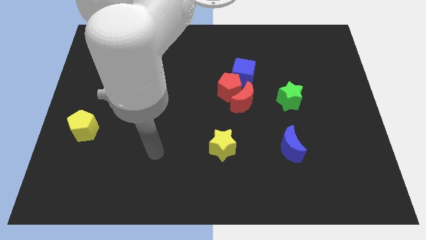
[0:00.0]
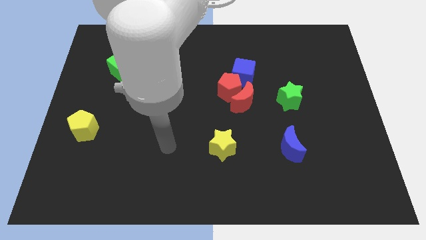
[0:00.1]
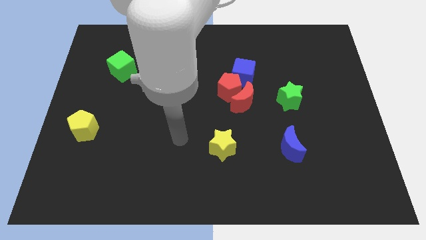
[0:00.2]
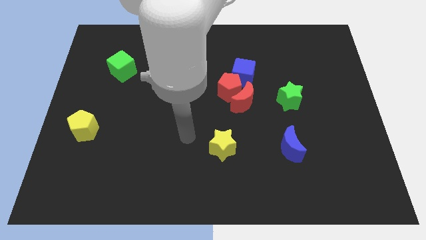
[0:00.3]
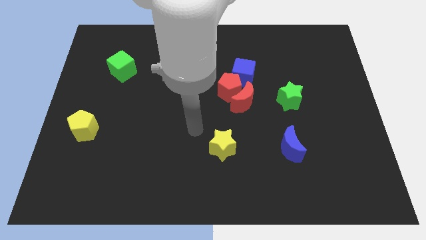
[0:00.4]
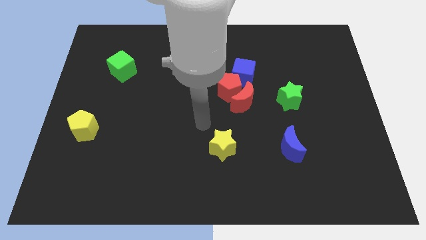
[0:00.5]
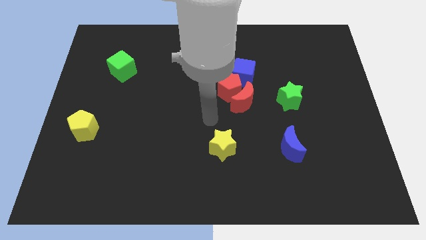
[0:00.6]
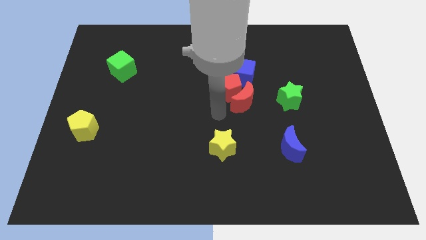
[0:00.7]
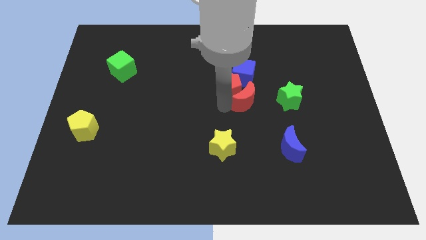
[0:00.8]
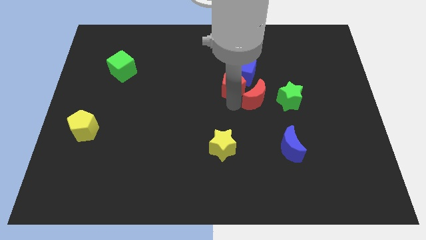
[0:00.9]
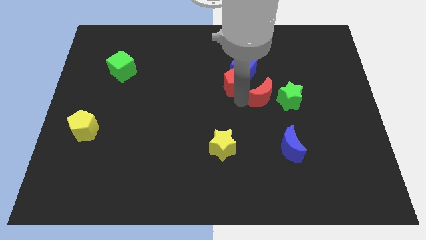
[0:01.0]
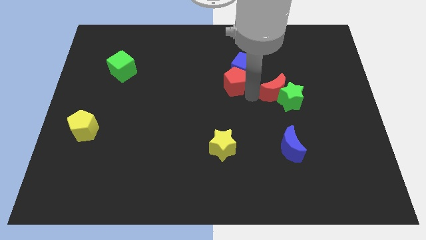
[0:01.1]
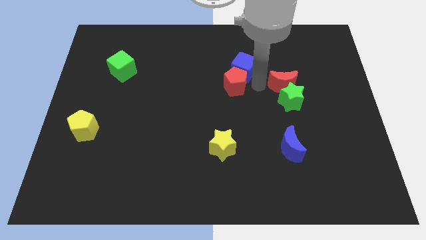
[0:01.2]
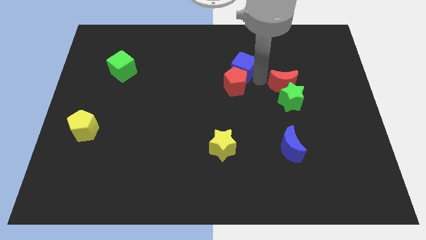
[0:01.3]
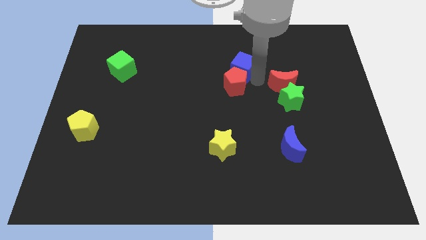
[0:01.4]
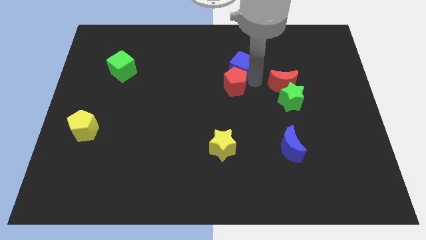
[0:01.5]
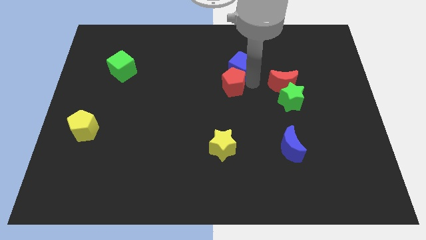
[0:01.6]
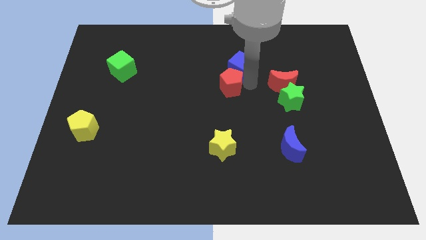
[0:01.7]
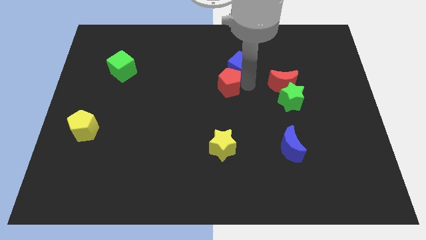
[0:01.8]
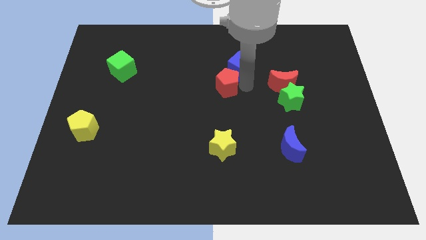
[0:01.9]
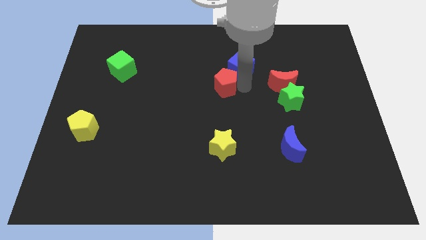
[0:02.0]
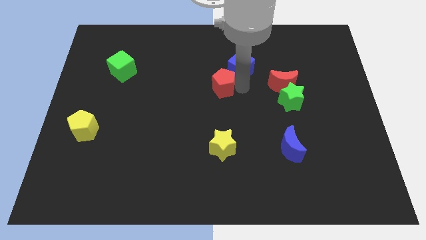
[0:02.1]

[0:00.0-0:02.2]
pull the red pentagon apart from the red moon and blue cube

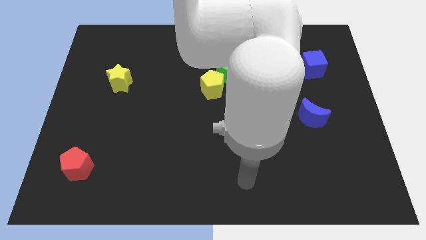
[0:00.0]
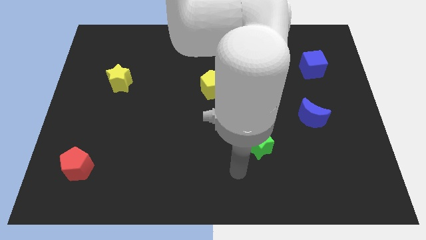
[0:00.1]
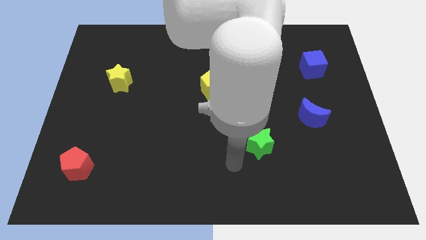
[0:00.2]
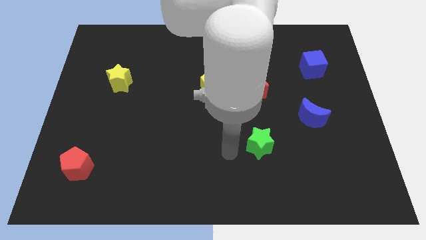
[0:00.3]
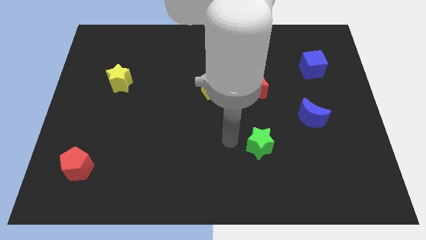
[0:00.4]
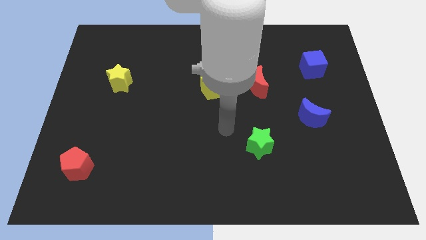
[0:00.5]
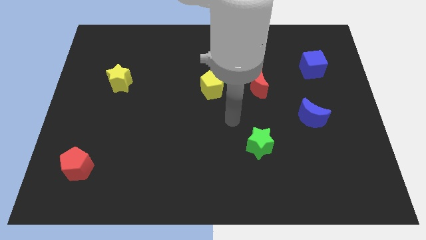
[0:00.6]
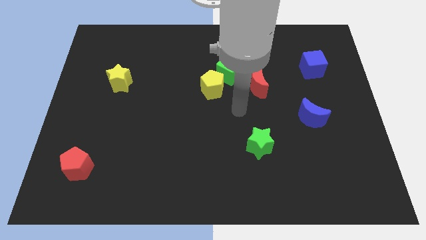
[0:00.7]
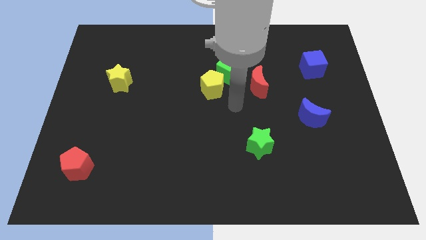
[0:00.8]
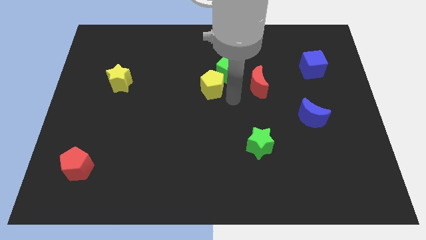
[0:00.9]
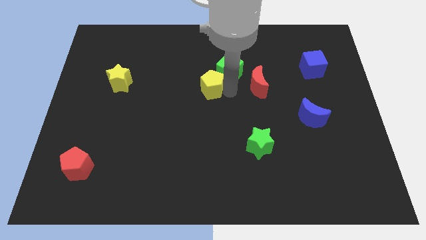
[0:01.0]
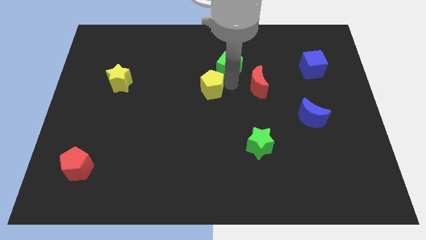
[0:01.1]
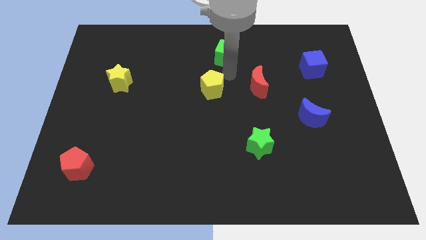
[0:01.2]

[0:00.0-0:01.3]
pull the yellow pentagon apart from the green cube

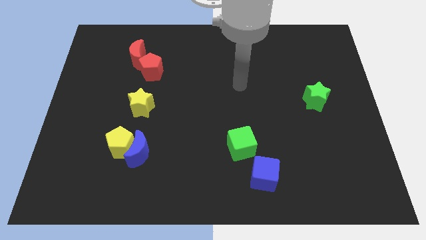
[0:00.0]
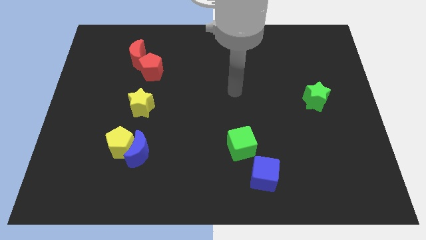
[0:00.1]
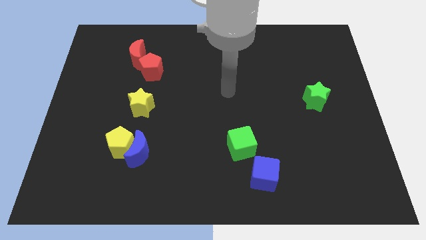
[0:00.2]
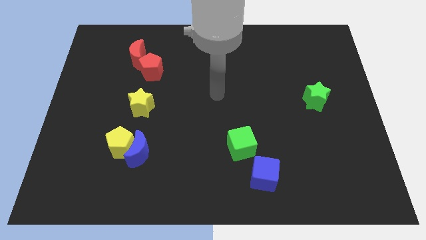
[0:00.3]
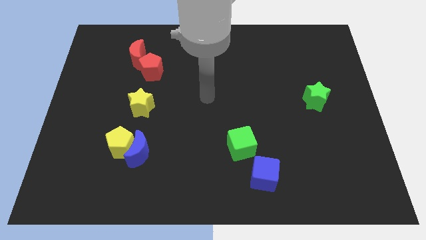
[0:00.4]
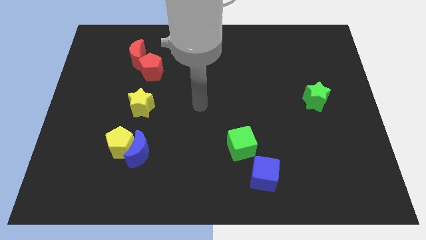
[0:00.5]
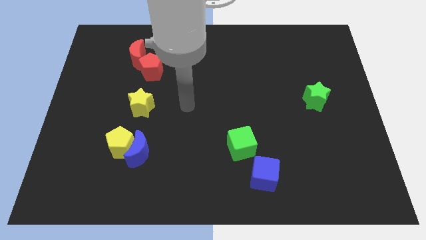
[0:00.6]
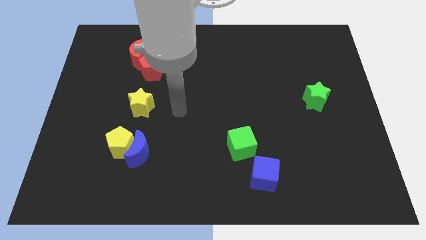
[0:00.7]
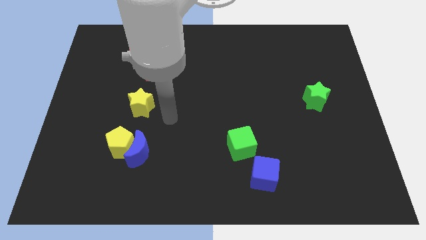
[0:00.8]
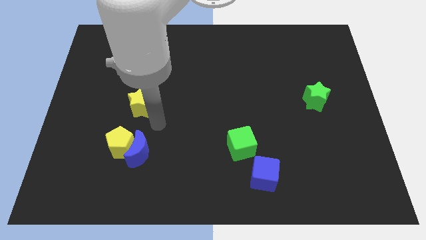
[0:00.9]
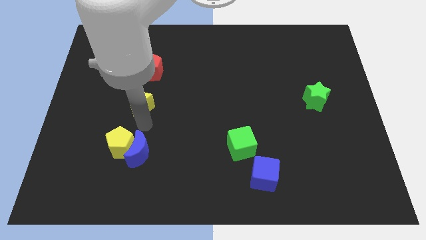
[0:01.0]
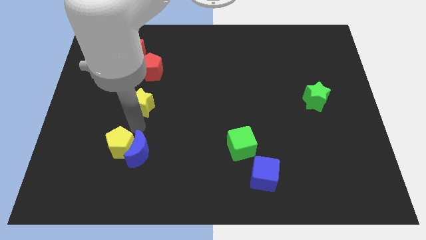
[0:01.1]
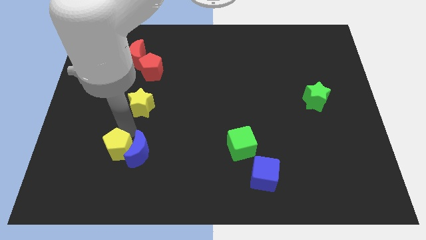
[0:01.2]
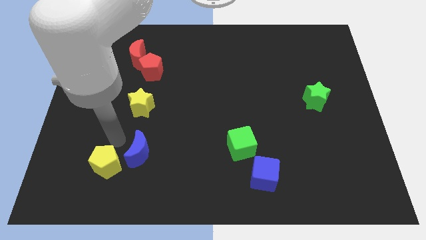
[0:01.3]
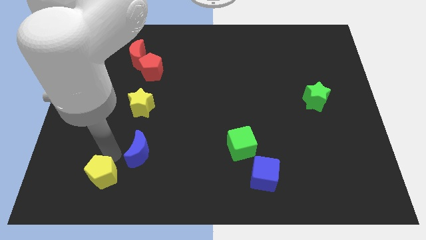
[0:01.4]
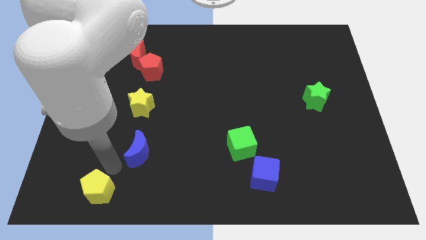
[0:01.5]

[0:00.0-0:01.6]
separate the blue moon from the yellow pentagon

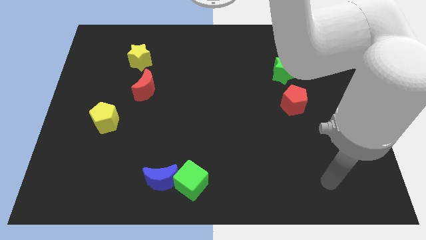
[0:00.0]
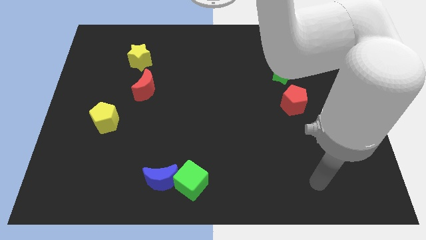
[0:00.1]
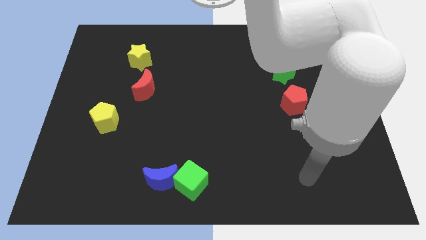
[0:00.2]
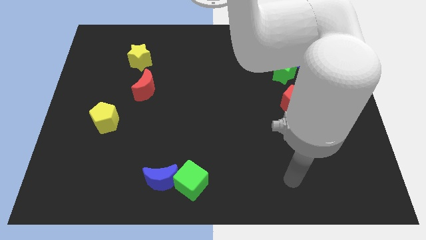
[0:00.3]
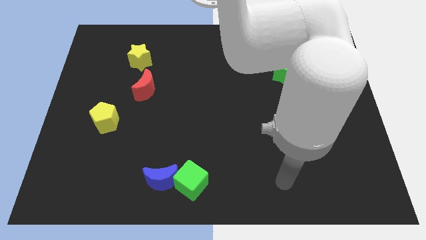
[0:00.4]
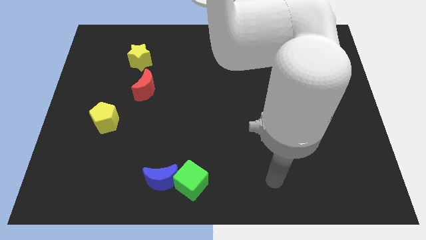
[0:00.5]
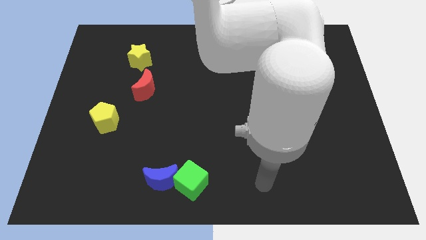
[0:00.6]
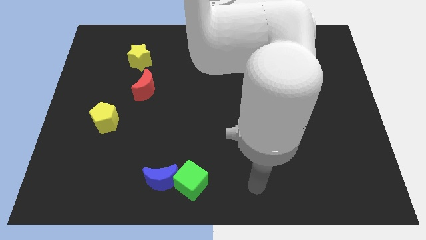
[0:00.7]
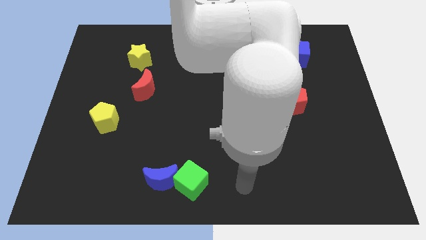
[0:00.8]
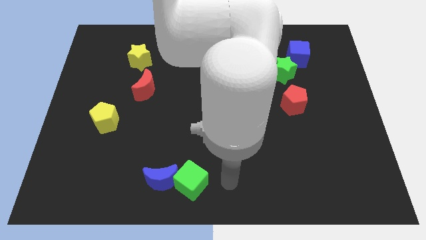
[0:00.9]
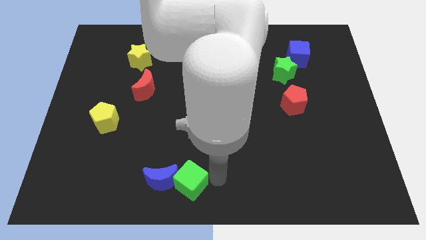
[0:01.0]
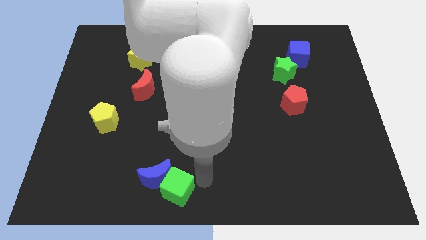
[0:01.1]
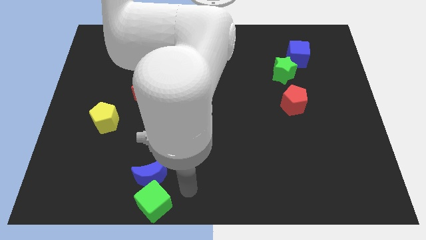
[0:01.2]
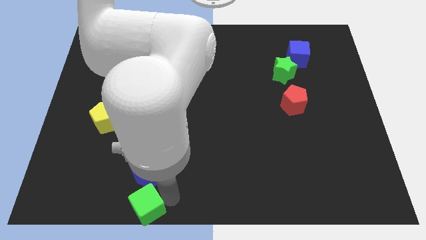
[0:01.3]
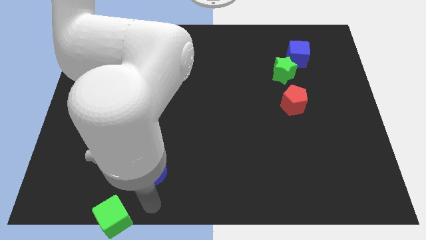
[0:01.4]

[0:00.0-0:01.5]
move the blue moon away from the green cube

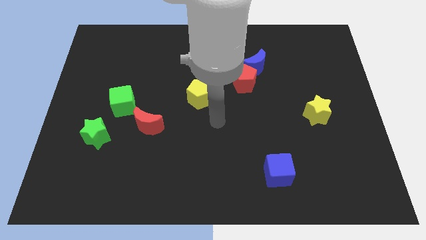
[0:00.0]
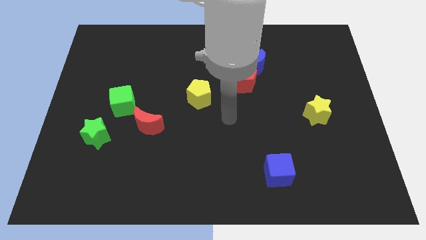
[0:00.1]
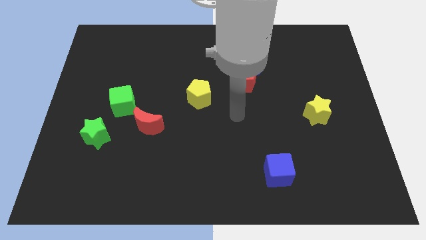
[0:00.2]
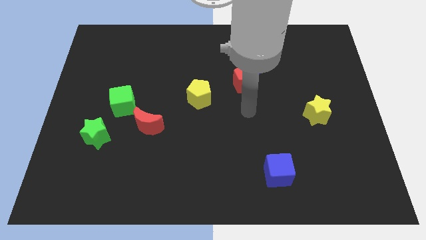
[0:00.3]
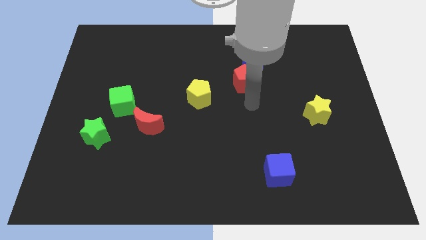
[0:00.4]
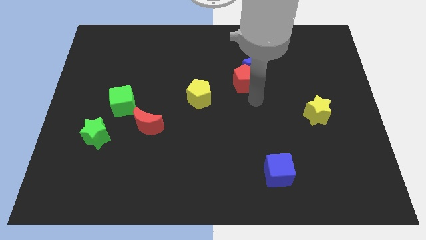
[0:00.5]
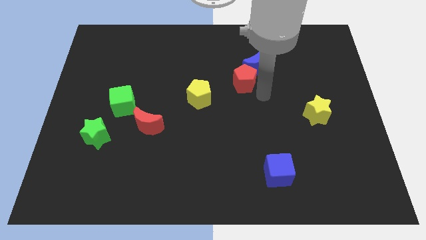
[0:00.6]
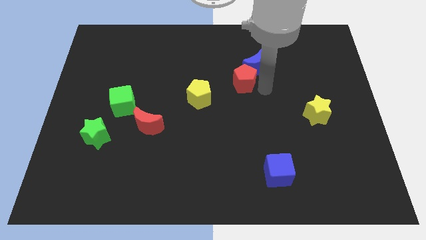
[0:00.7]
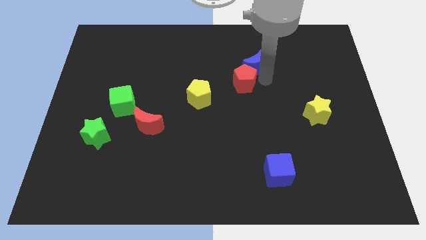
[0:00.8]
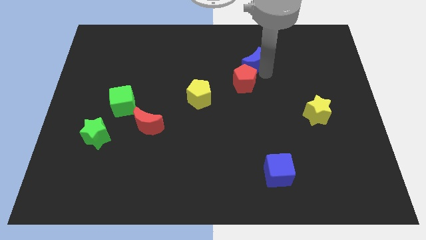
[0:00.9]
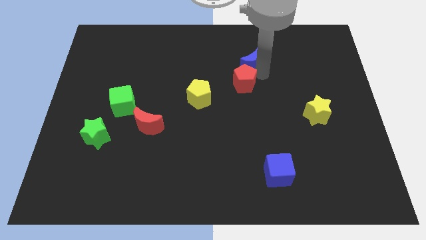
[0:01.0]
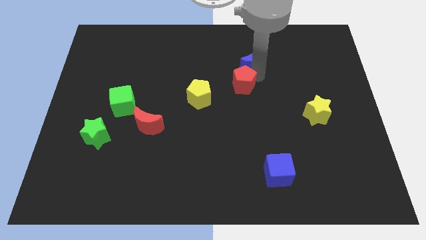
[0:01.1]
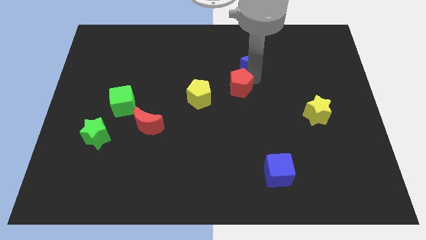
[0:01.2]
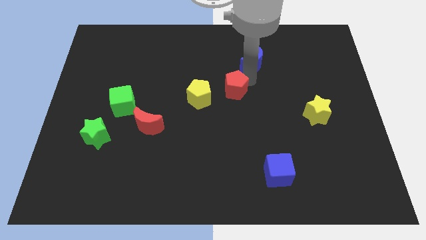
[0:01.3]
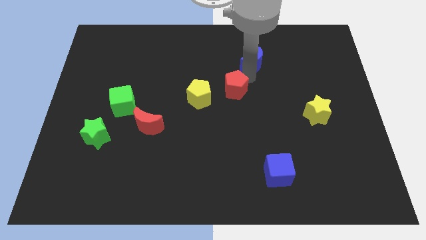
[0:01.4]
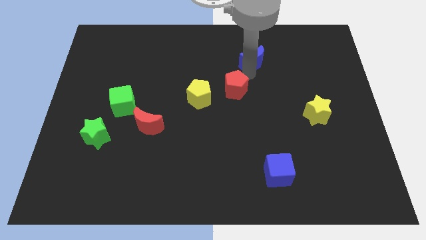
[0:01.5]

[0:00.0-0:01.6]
move the red pentagon away from the blue moon

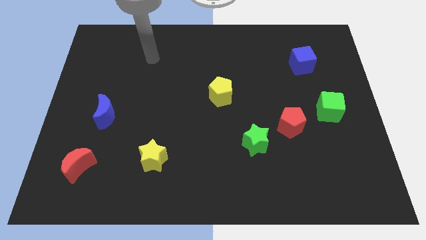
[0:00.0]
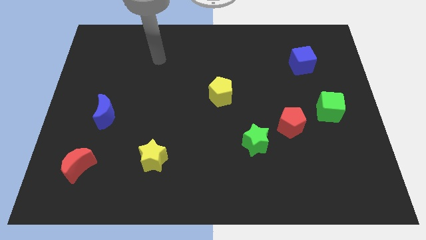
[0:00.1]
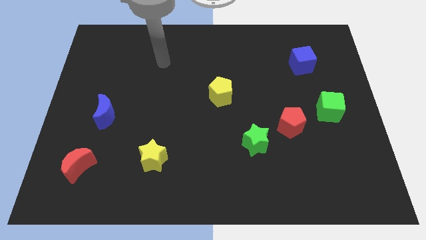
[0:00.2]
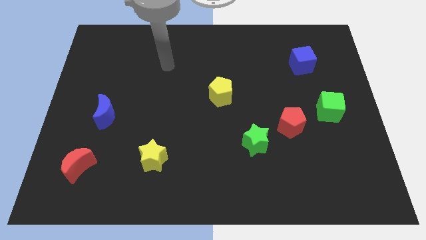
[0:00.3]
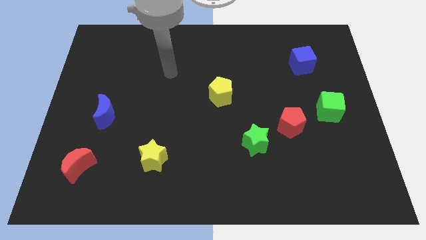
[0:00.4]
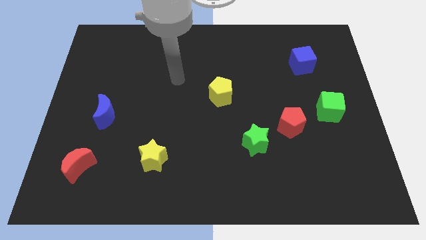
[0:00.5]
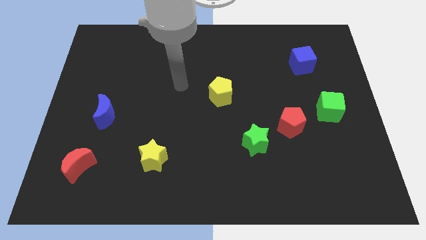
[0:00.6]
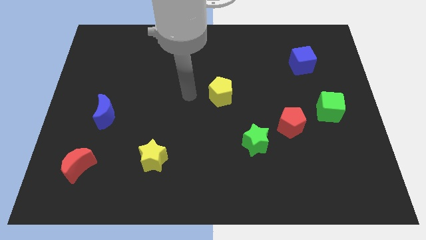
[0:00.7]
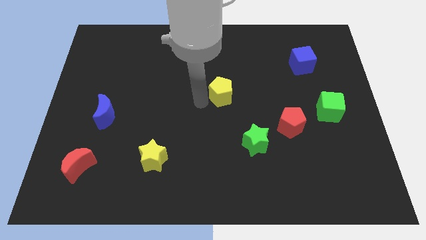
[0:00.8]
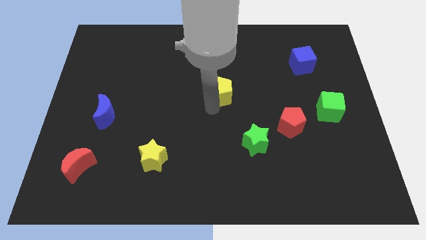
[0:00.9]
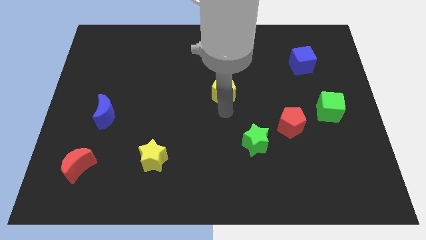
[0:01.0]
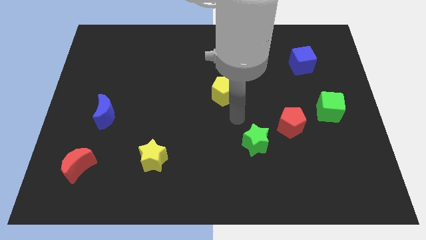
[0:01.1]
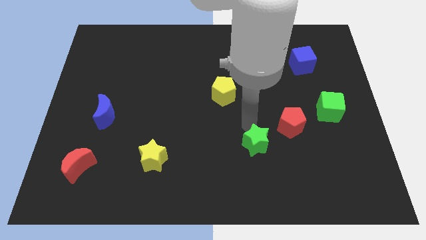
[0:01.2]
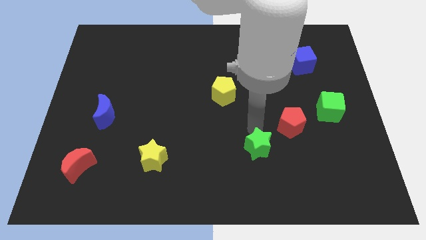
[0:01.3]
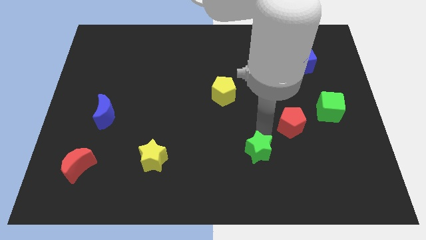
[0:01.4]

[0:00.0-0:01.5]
move the red pentagon away from the green star
